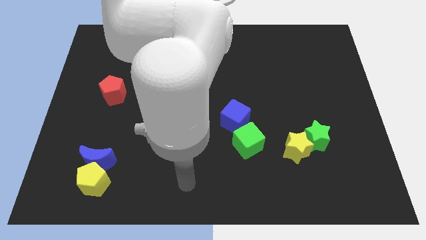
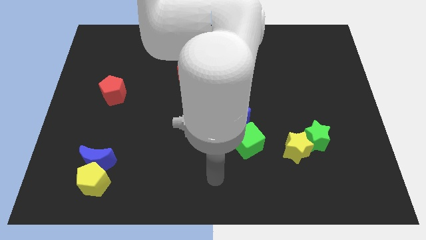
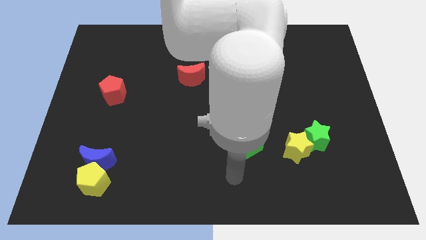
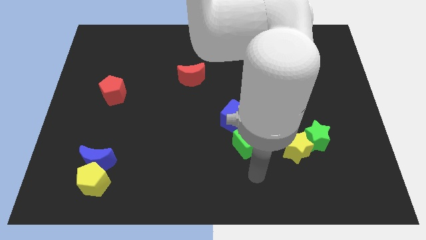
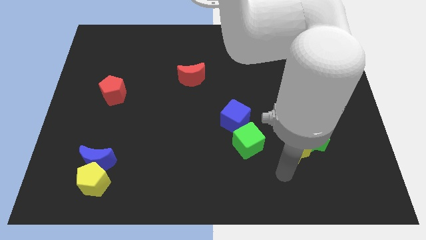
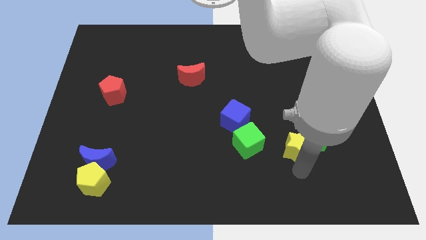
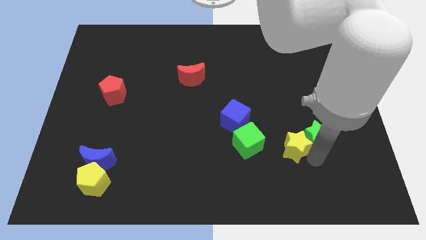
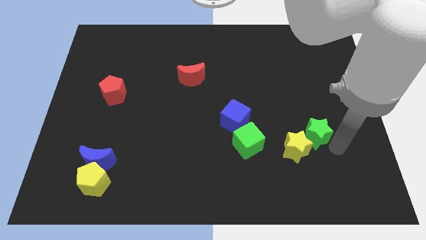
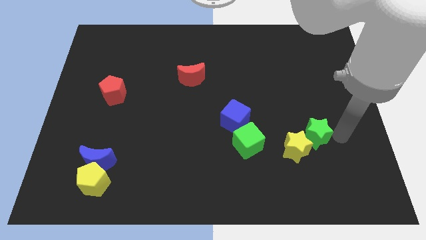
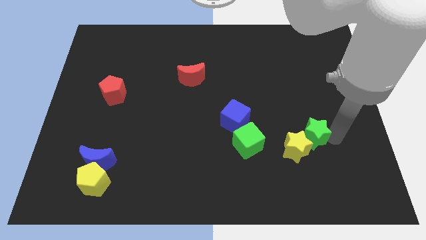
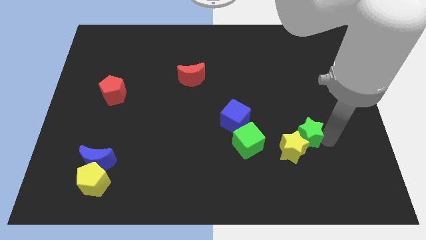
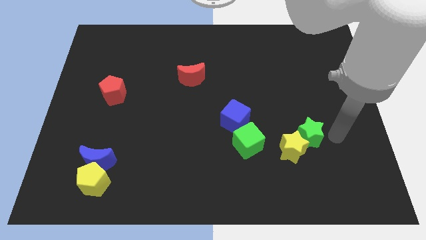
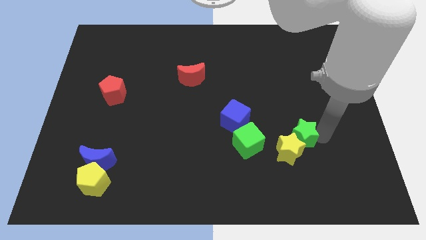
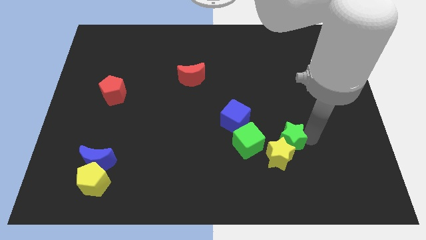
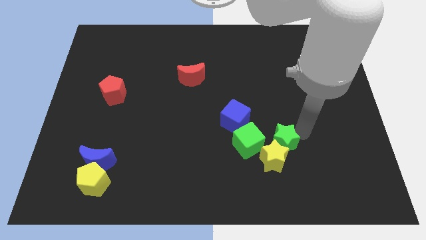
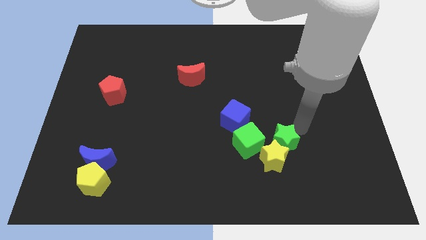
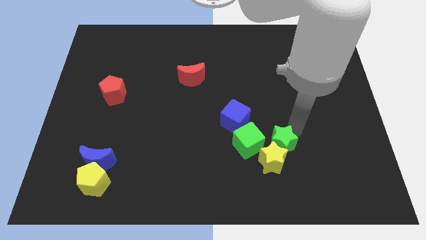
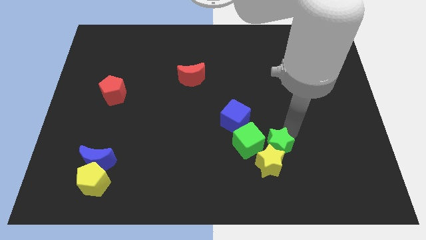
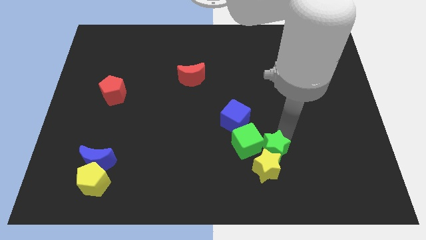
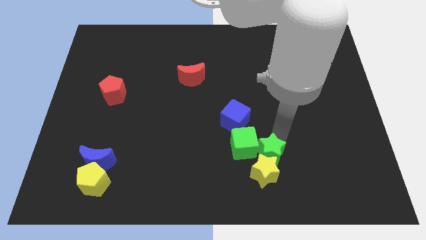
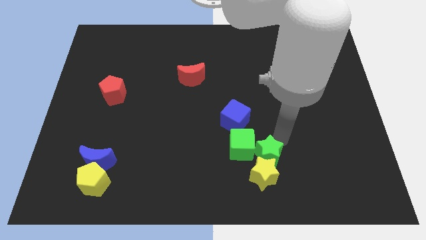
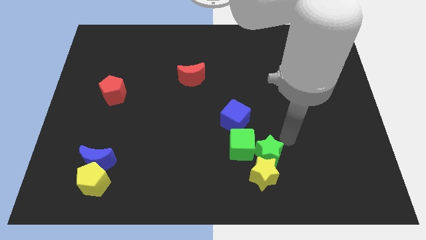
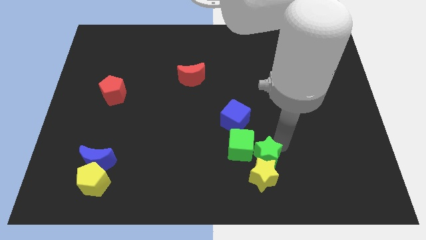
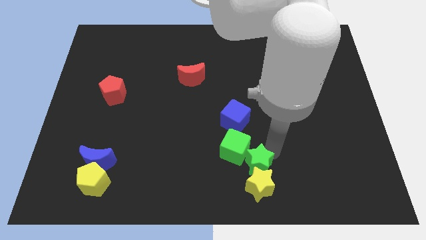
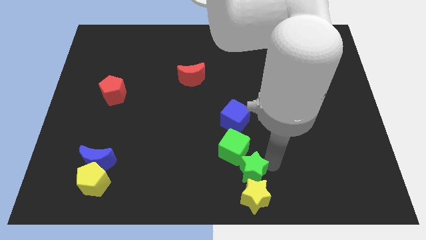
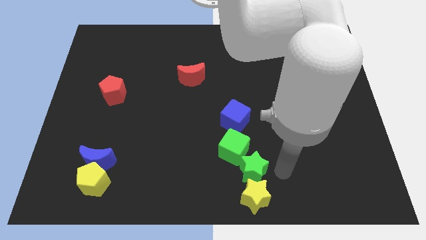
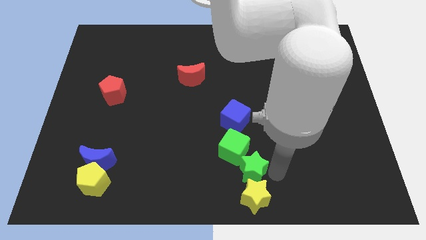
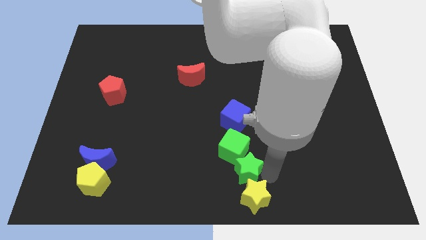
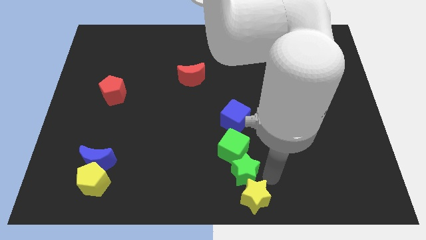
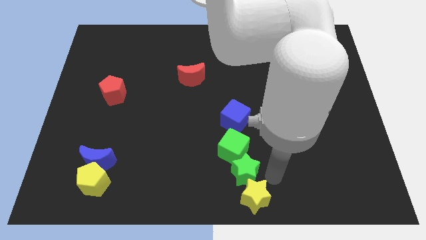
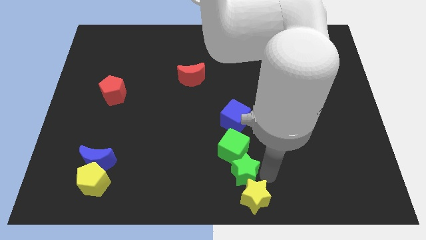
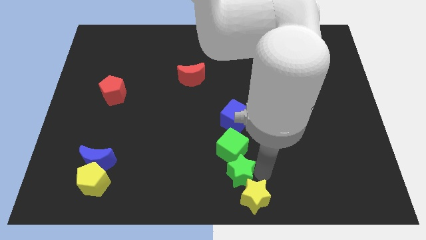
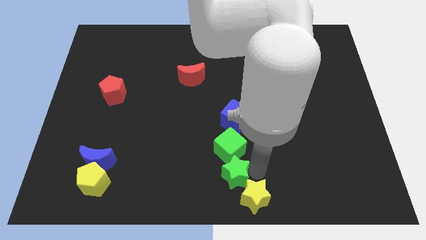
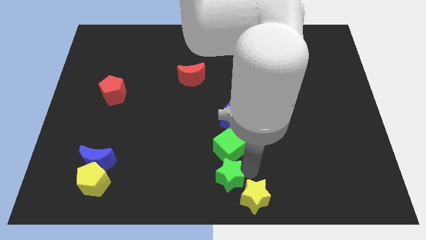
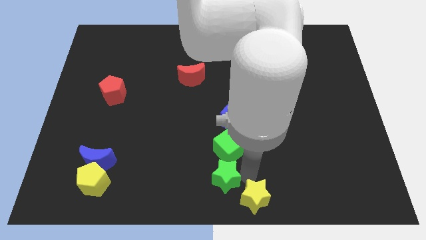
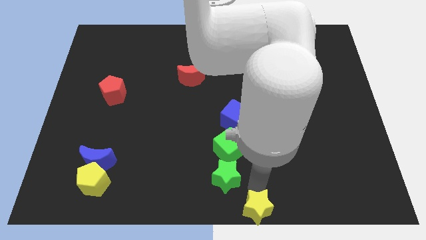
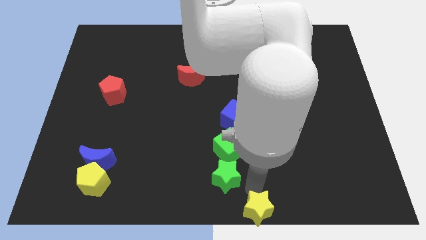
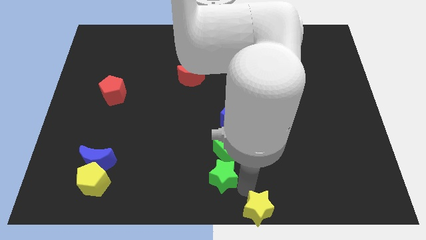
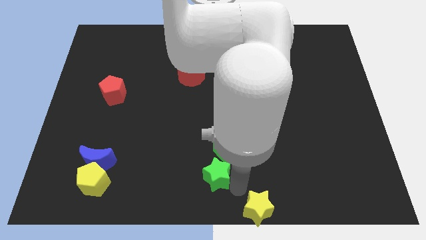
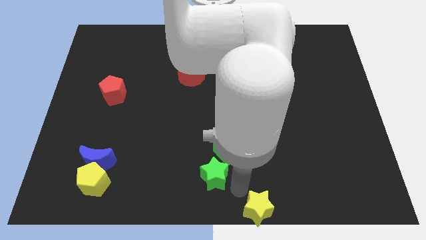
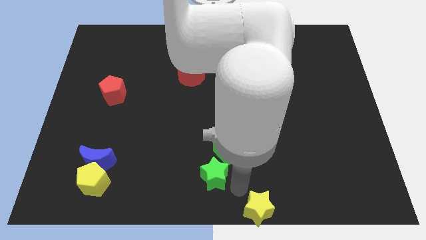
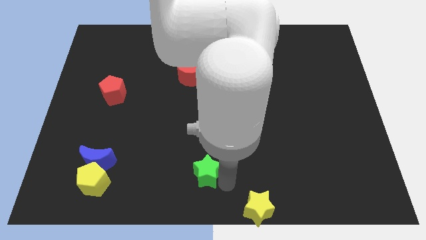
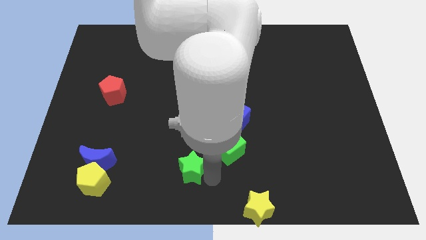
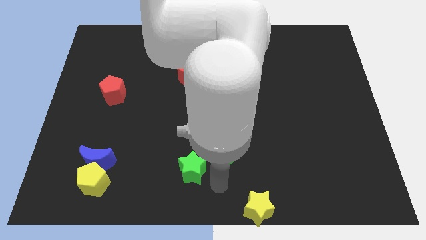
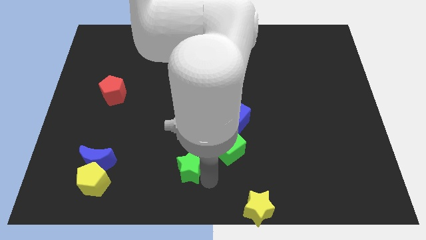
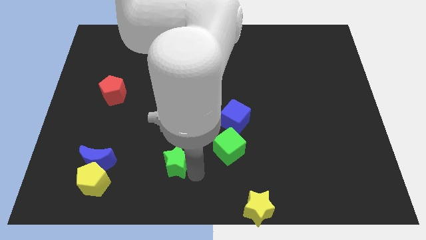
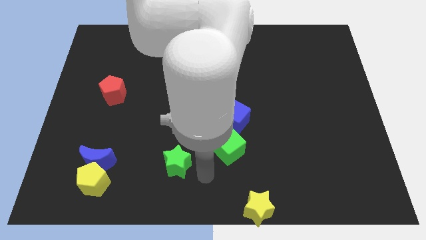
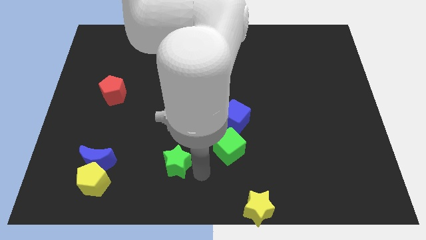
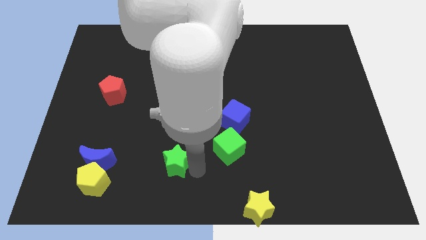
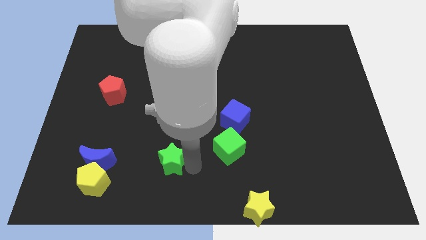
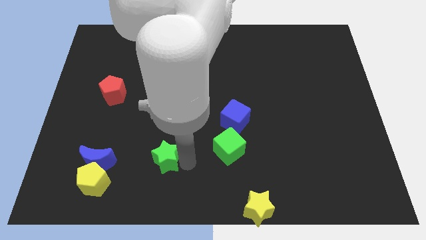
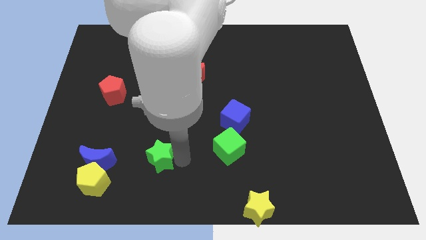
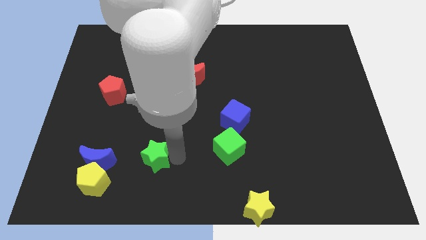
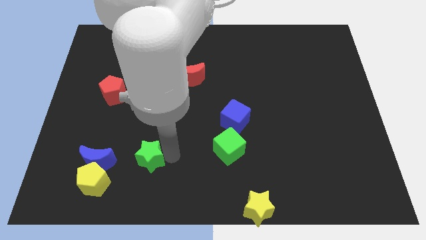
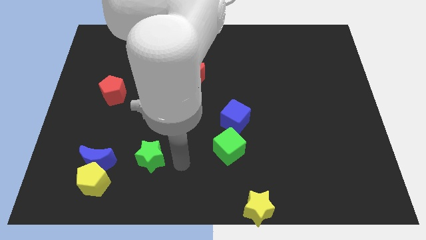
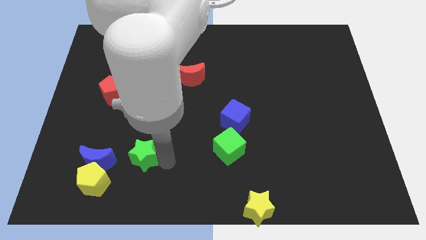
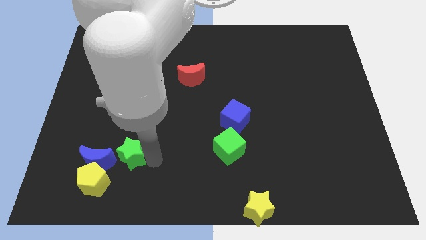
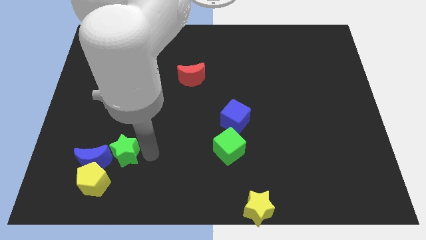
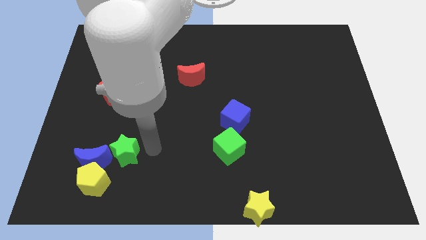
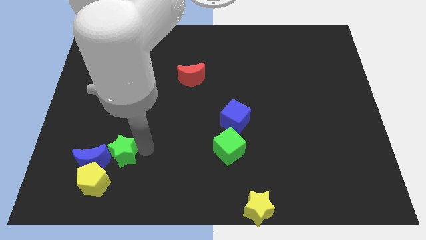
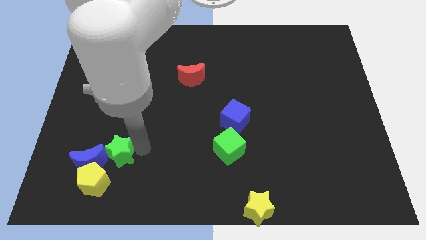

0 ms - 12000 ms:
push the green star close to the blue moon

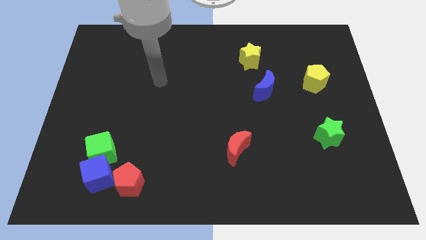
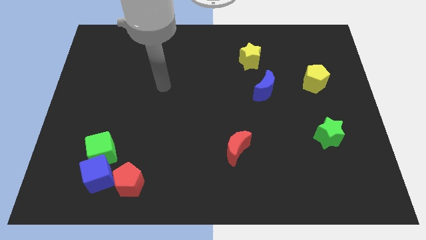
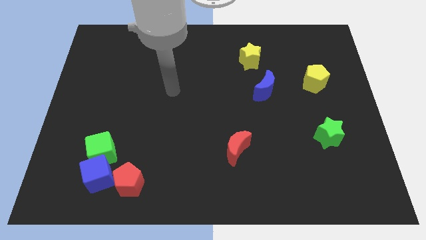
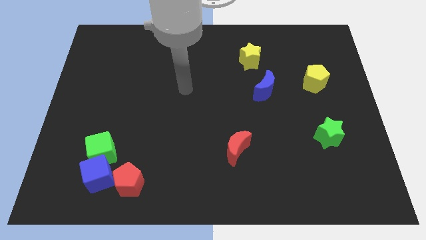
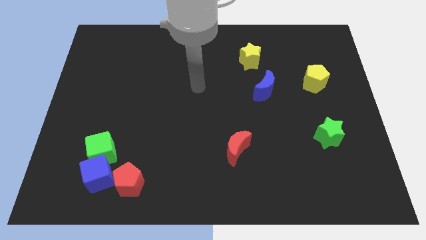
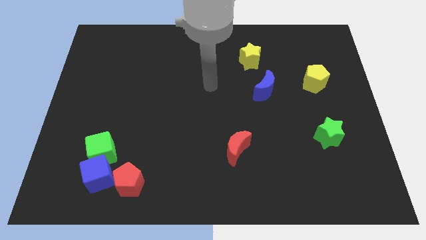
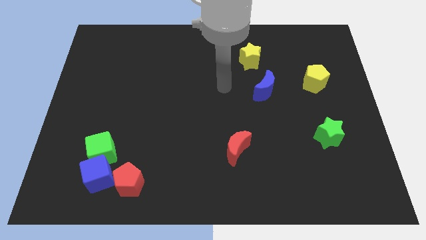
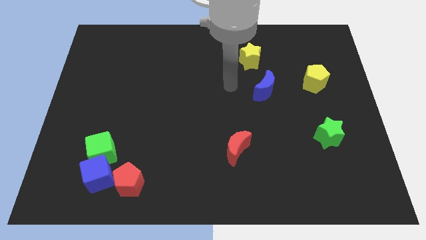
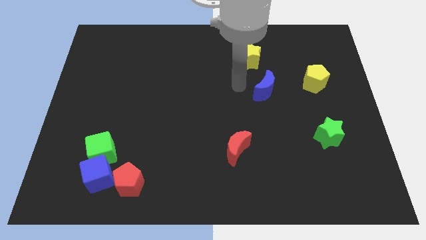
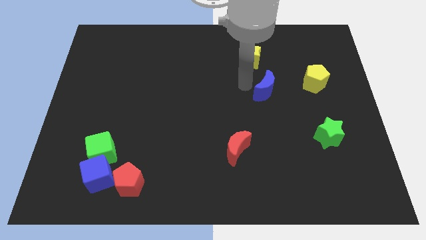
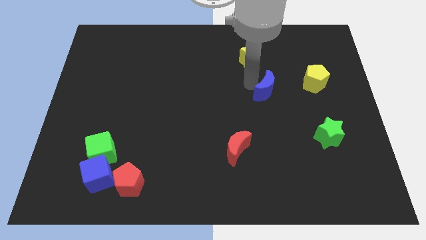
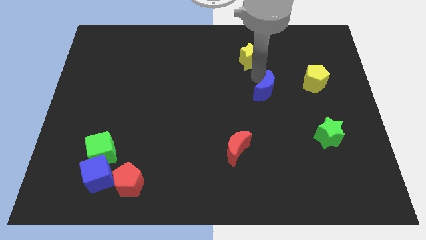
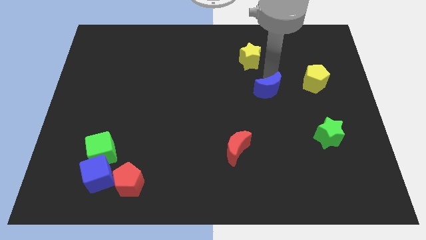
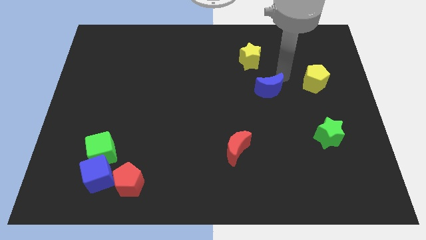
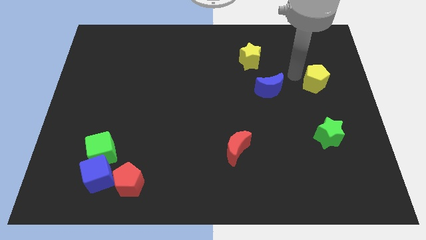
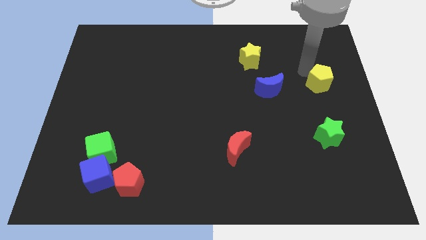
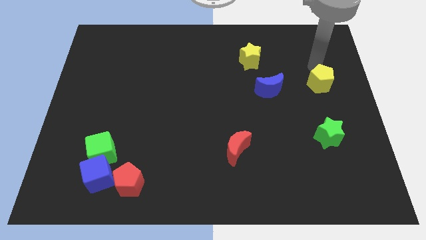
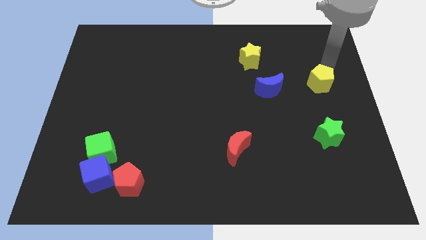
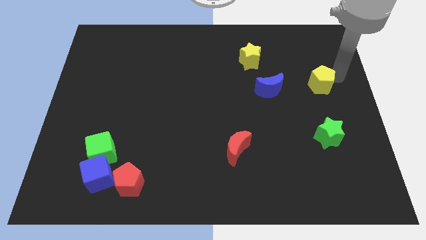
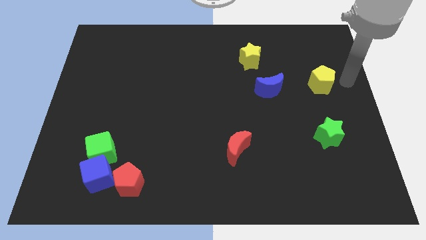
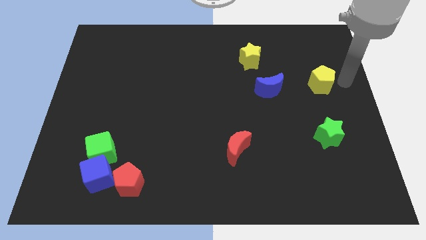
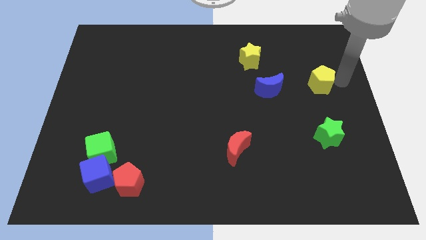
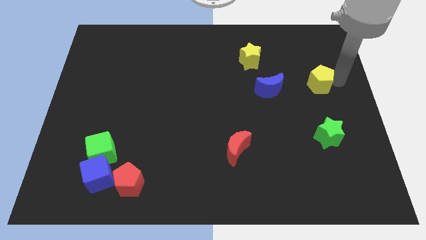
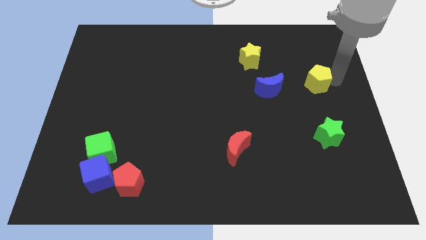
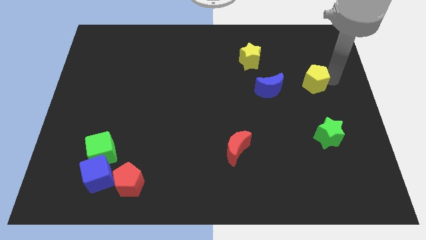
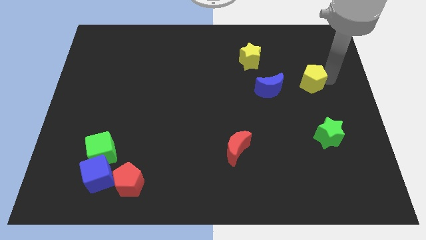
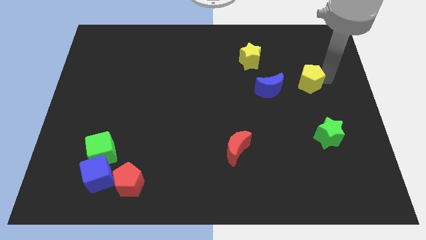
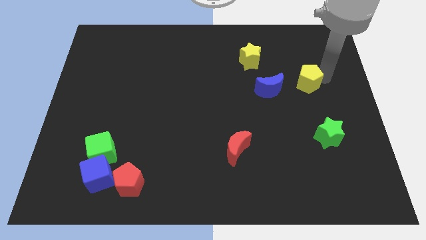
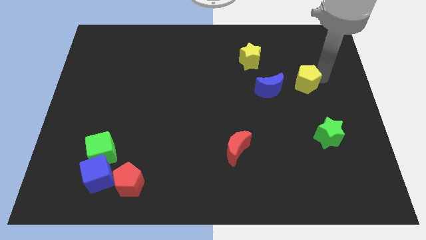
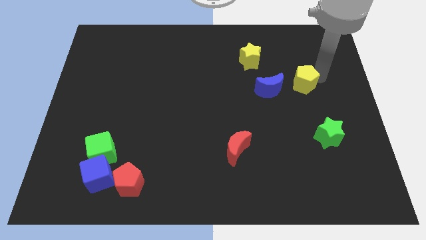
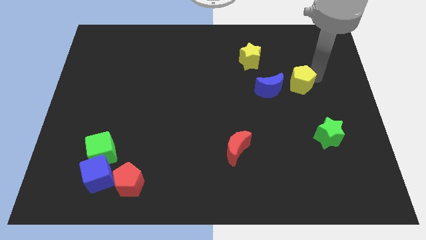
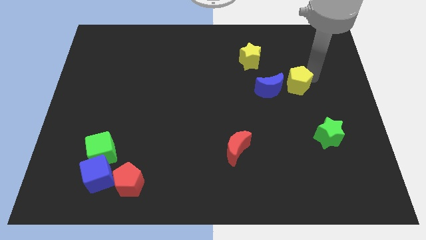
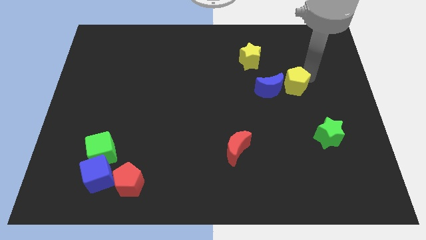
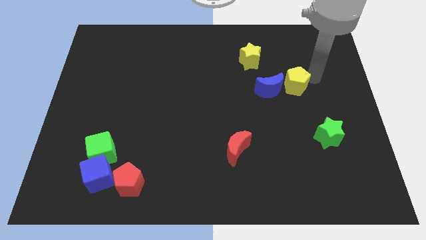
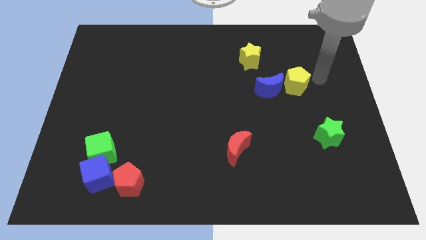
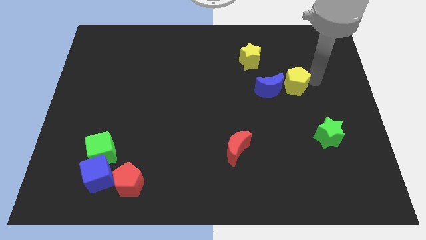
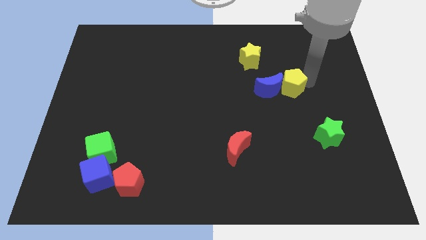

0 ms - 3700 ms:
move the yellow pentagon close to the blue moon
